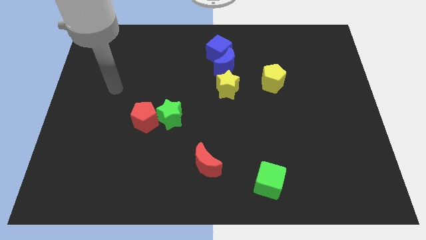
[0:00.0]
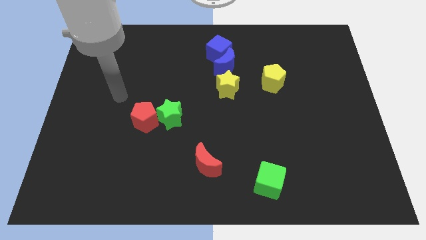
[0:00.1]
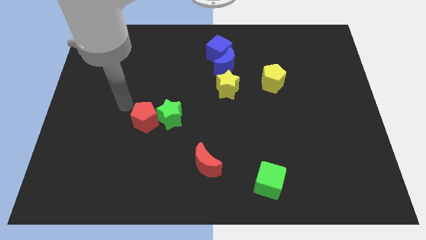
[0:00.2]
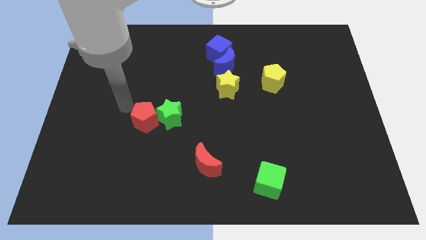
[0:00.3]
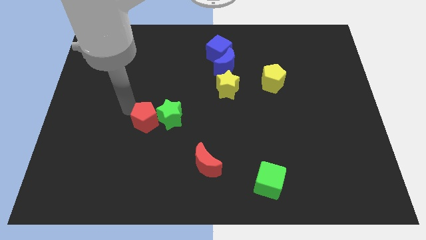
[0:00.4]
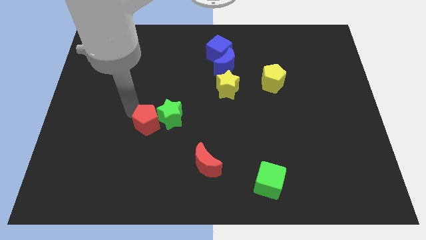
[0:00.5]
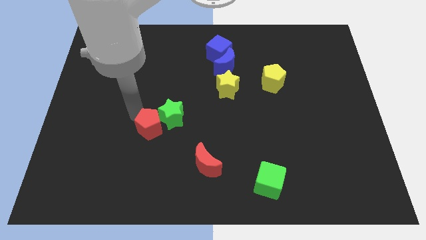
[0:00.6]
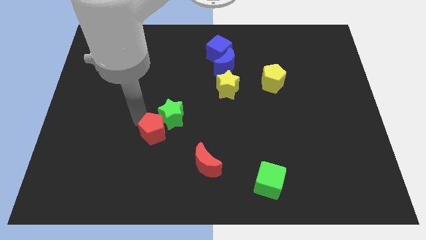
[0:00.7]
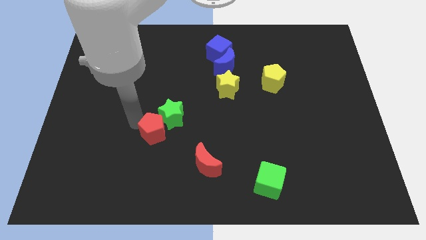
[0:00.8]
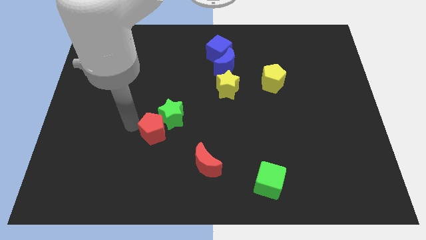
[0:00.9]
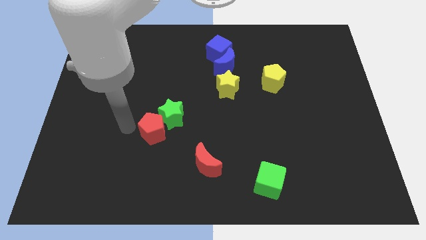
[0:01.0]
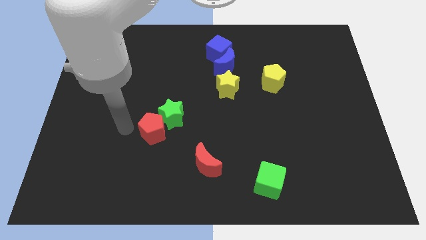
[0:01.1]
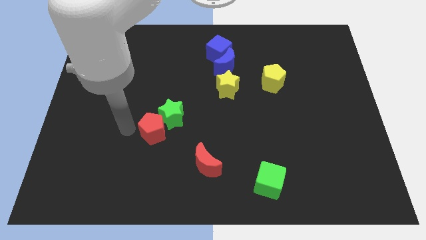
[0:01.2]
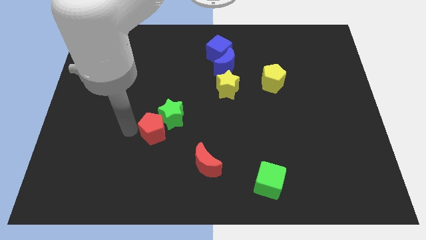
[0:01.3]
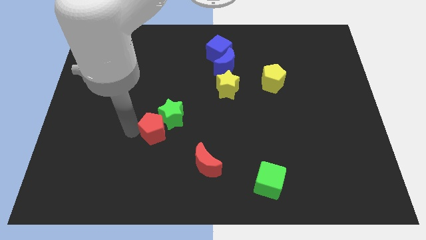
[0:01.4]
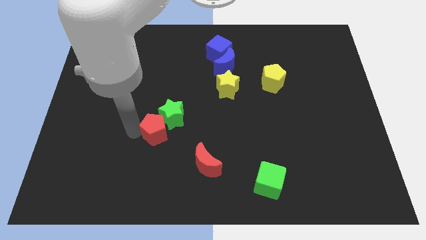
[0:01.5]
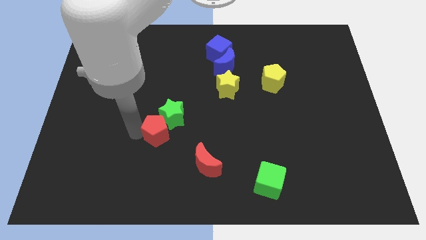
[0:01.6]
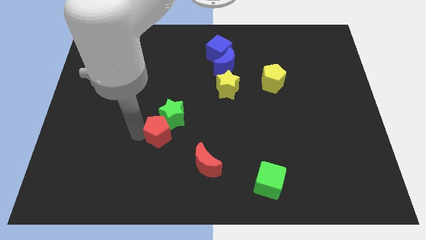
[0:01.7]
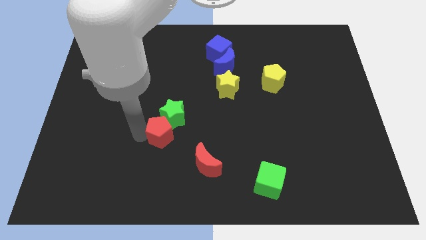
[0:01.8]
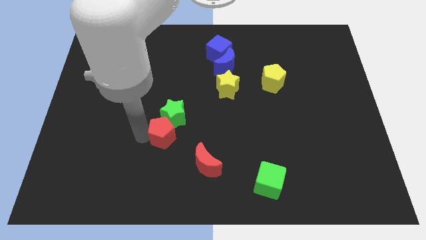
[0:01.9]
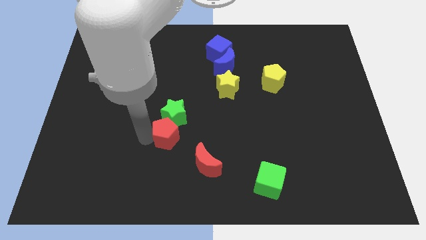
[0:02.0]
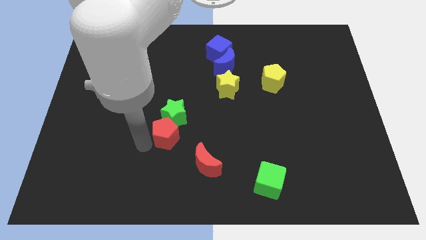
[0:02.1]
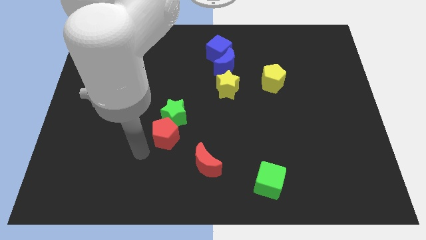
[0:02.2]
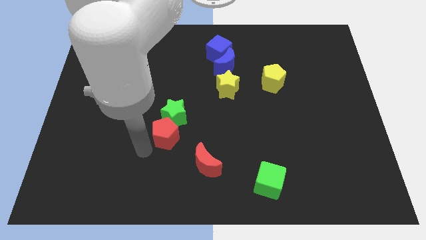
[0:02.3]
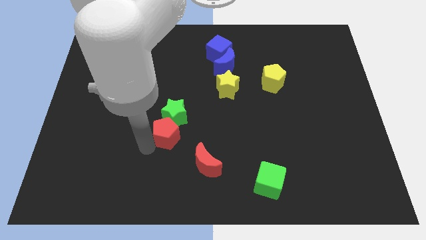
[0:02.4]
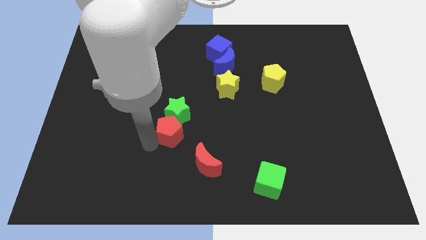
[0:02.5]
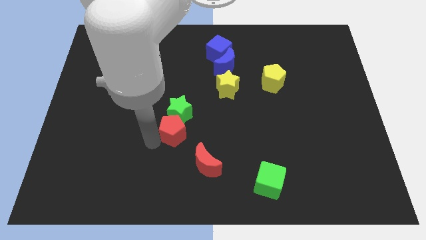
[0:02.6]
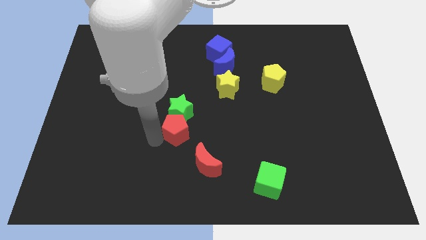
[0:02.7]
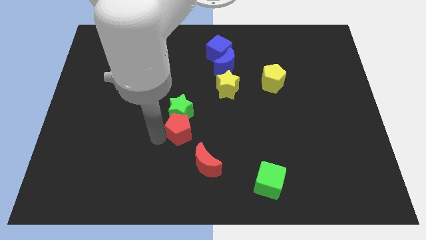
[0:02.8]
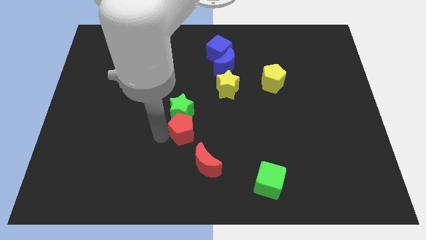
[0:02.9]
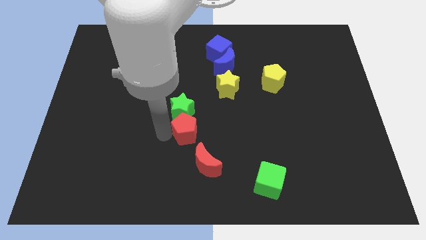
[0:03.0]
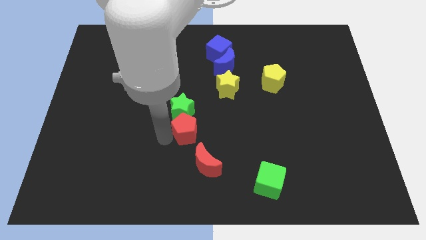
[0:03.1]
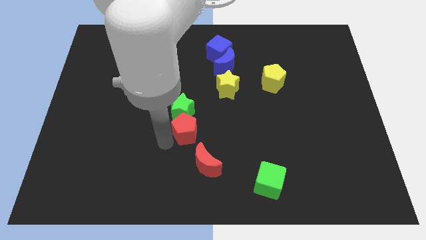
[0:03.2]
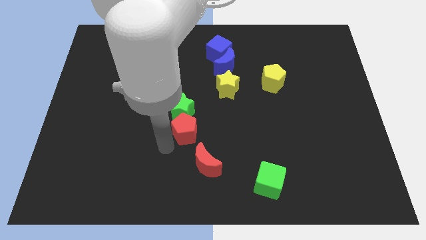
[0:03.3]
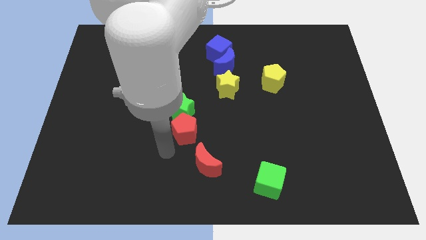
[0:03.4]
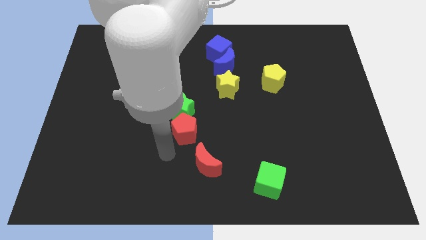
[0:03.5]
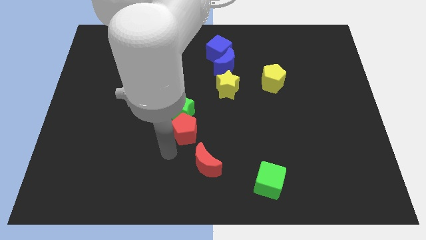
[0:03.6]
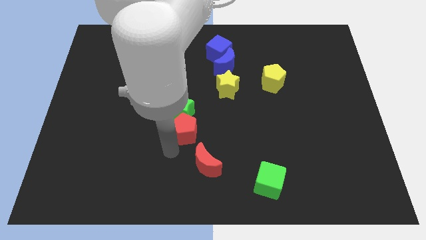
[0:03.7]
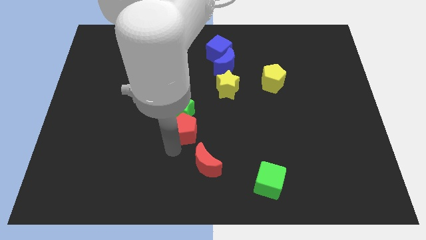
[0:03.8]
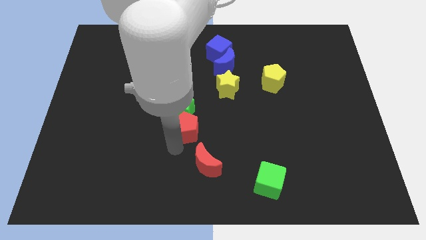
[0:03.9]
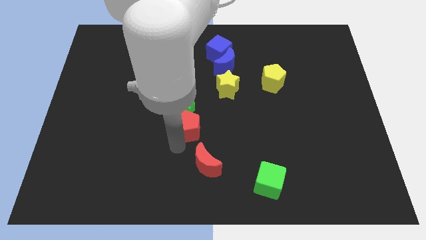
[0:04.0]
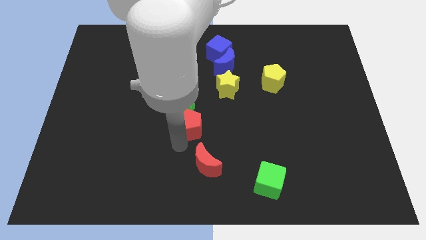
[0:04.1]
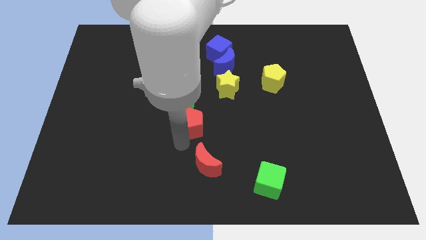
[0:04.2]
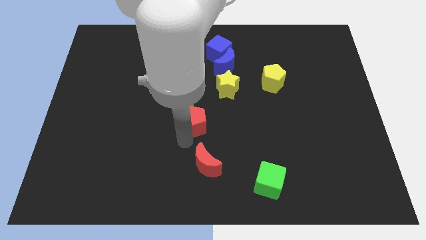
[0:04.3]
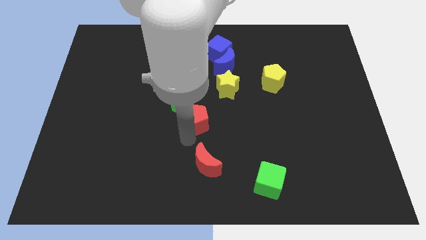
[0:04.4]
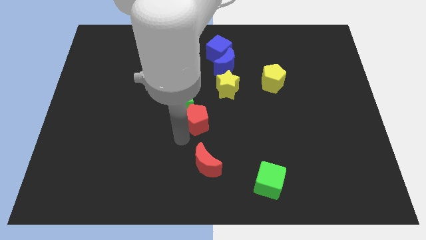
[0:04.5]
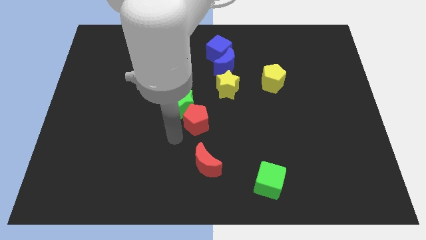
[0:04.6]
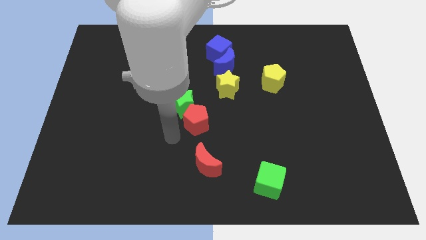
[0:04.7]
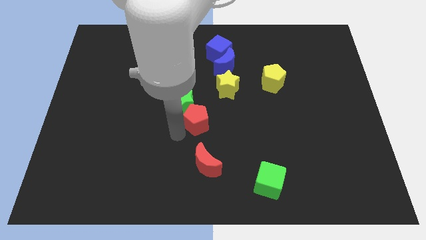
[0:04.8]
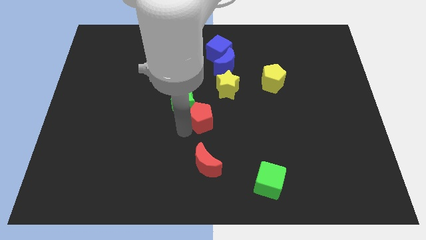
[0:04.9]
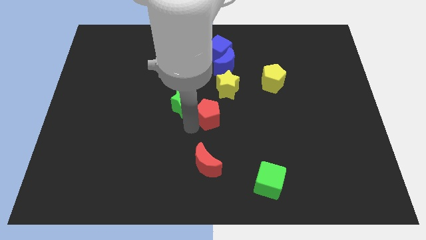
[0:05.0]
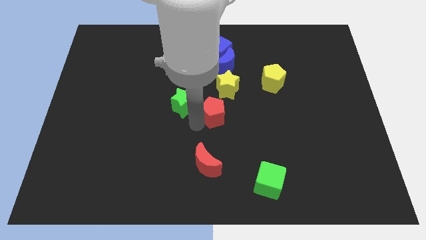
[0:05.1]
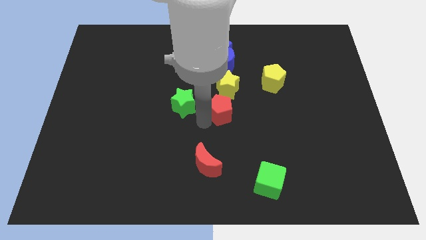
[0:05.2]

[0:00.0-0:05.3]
move the red pentagon to the bottom side of the blue moon

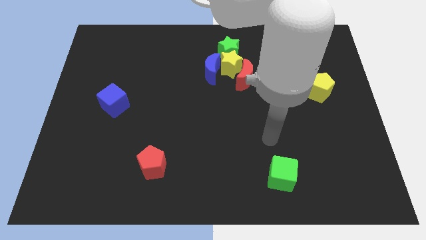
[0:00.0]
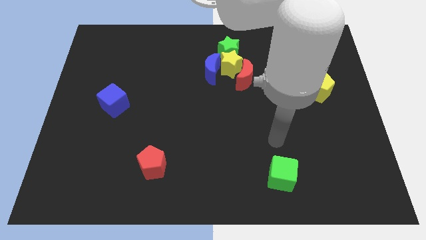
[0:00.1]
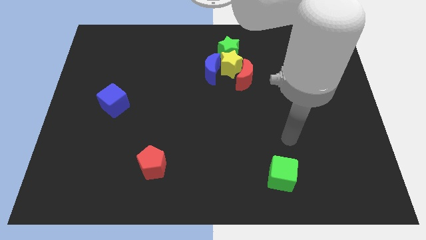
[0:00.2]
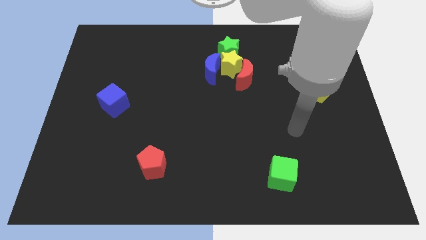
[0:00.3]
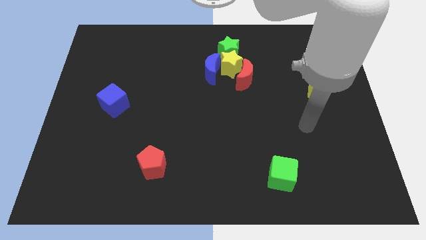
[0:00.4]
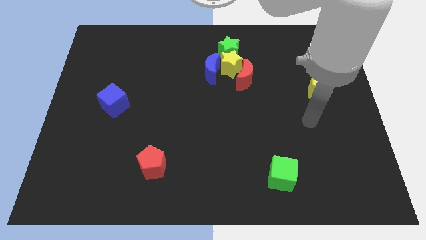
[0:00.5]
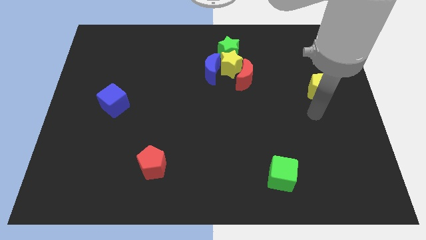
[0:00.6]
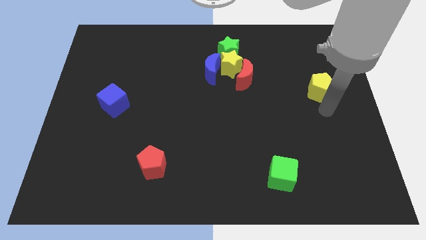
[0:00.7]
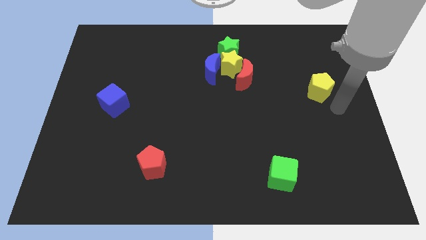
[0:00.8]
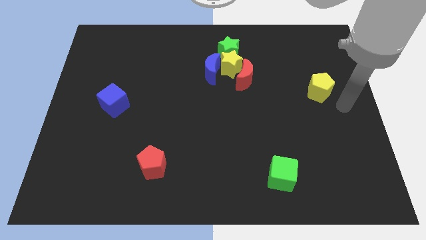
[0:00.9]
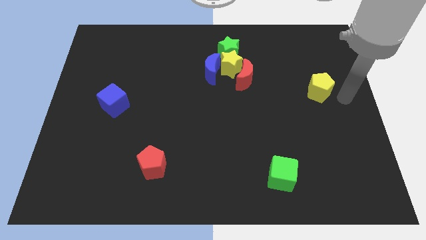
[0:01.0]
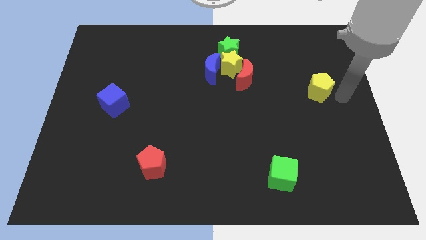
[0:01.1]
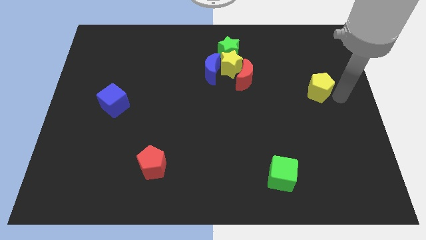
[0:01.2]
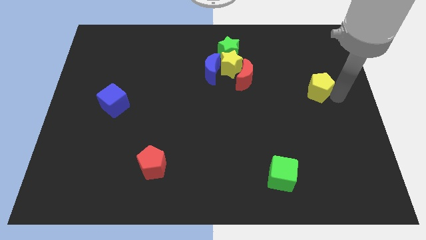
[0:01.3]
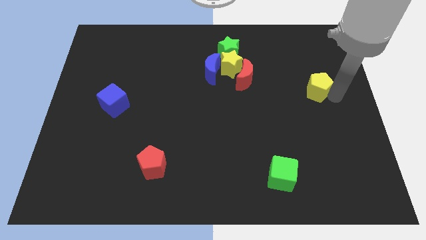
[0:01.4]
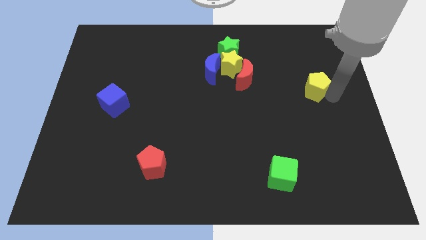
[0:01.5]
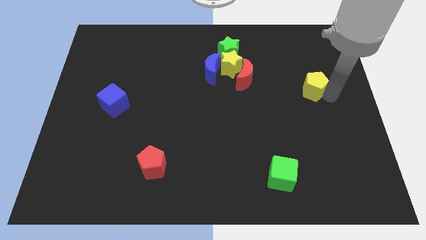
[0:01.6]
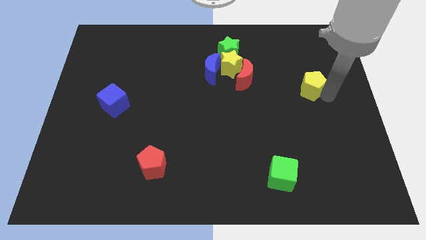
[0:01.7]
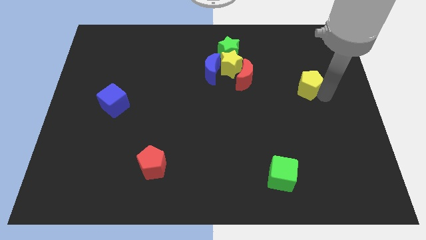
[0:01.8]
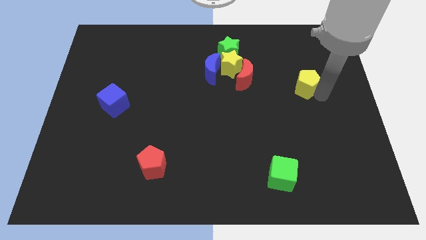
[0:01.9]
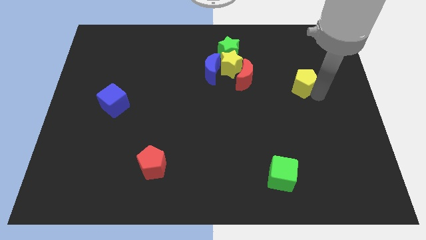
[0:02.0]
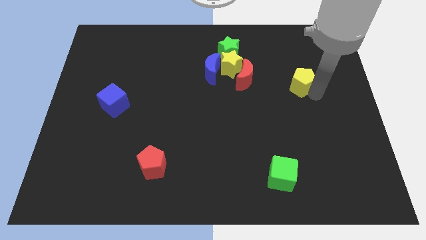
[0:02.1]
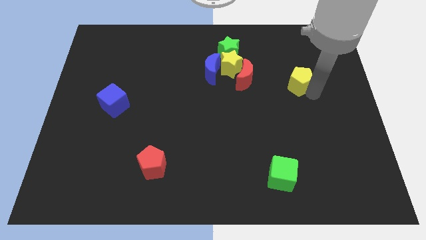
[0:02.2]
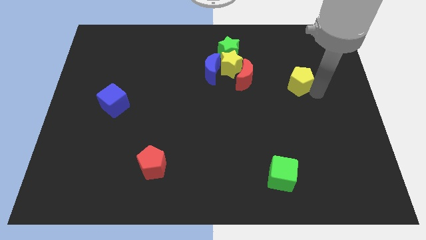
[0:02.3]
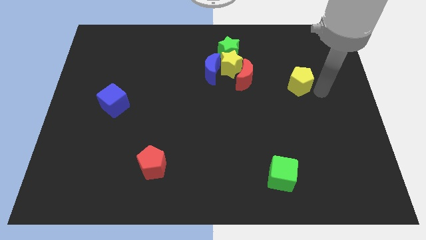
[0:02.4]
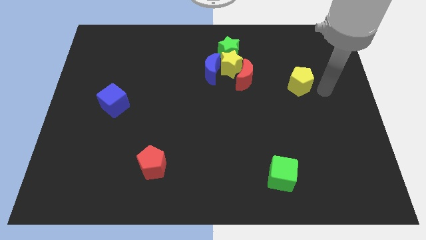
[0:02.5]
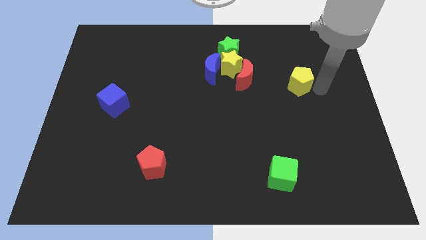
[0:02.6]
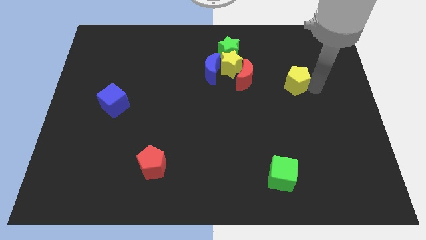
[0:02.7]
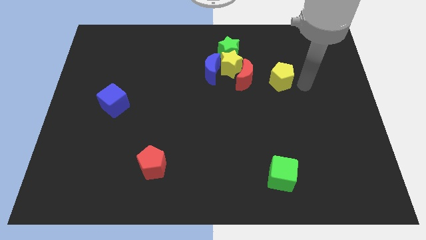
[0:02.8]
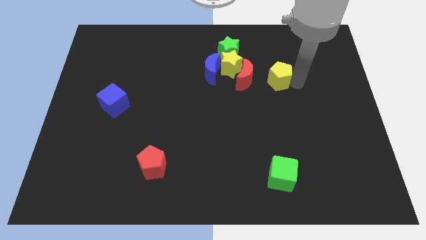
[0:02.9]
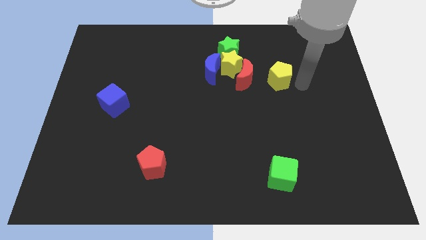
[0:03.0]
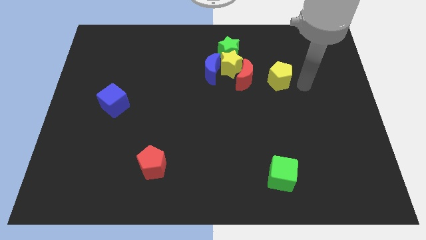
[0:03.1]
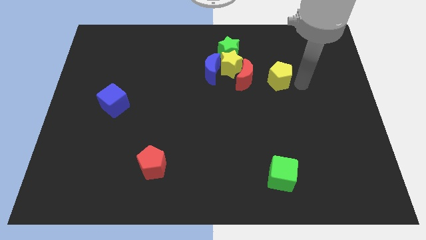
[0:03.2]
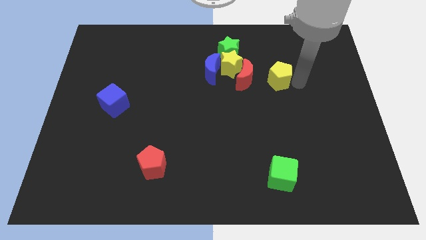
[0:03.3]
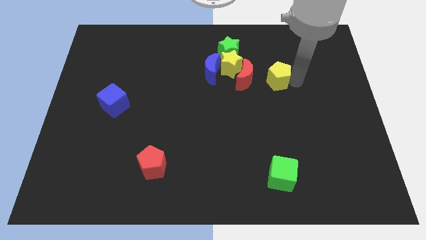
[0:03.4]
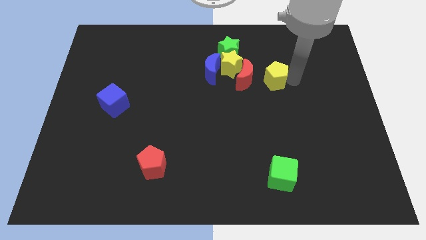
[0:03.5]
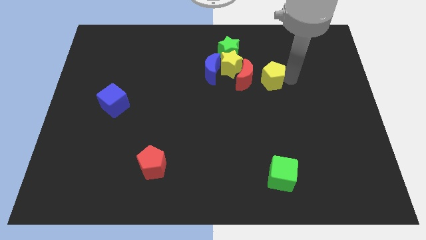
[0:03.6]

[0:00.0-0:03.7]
move the yellow pentagon right of the blue moon
